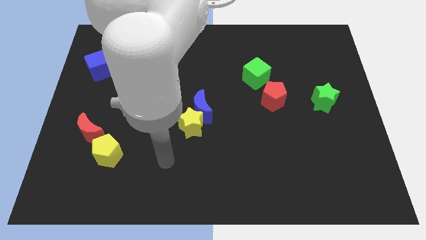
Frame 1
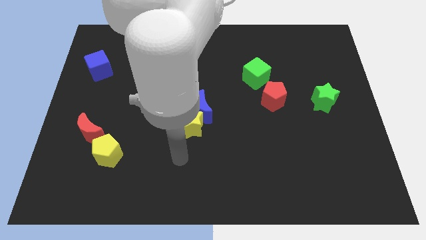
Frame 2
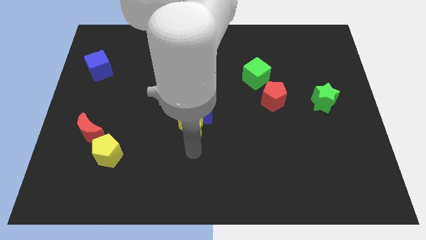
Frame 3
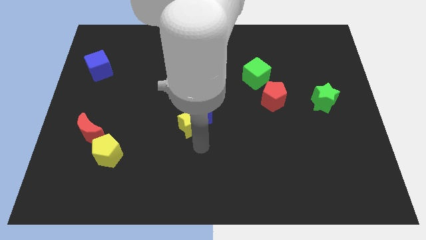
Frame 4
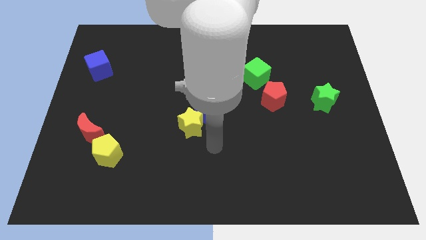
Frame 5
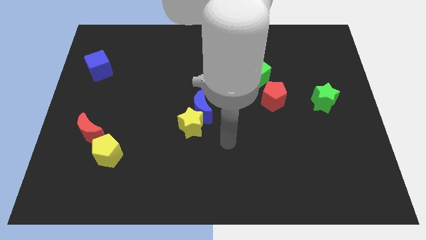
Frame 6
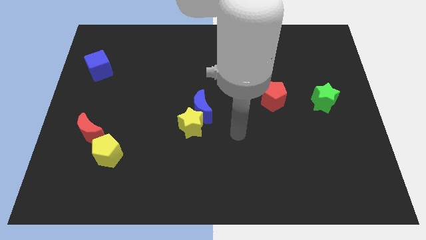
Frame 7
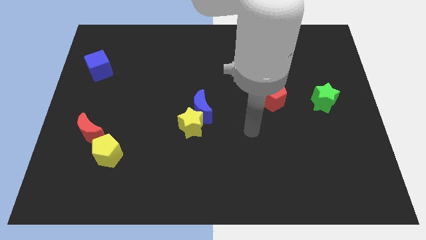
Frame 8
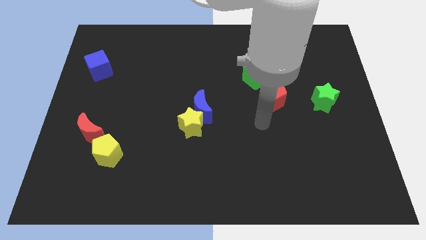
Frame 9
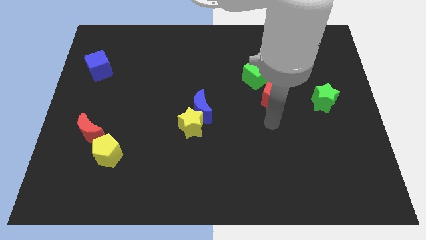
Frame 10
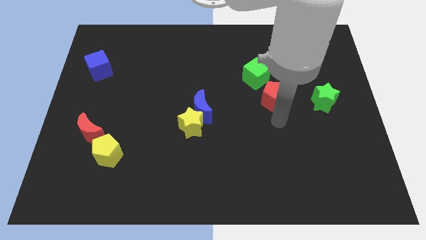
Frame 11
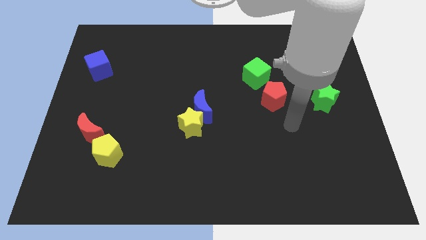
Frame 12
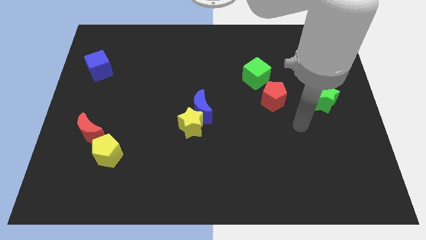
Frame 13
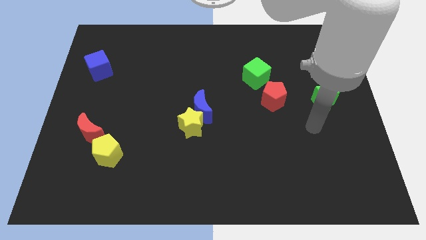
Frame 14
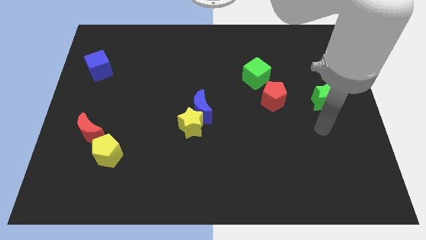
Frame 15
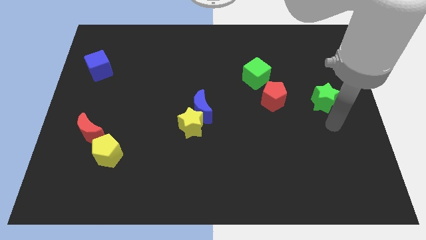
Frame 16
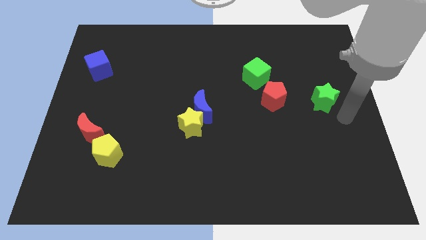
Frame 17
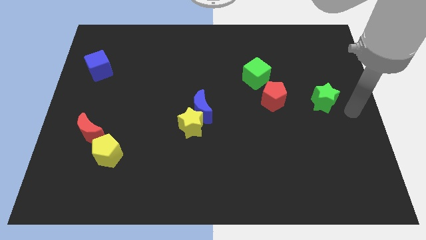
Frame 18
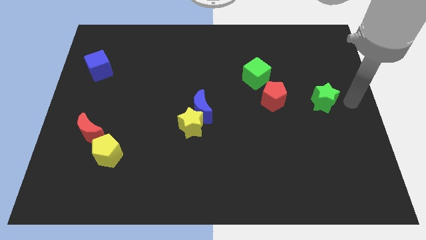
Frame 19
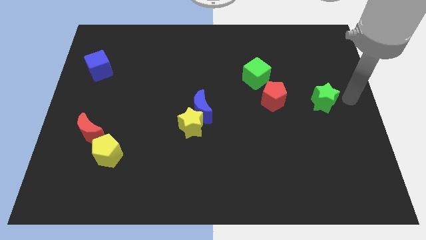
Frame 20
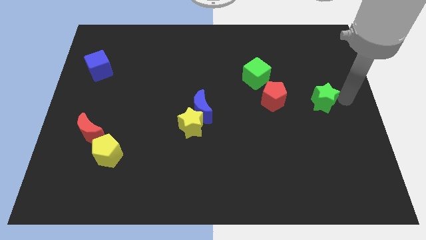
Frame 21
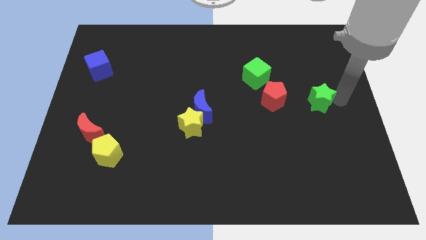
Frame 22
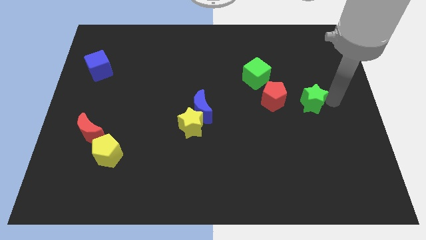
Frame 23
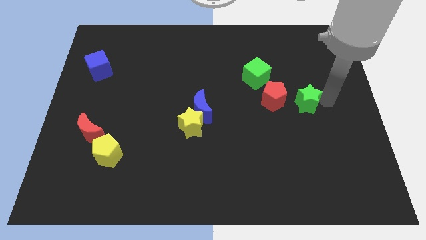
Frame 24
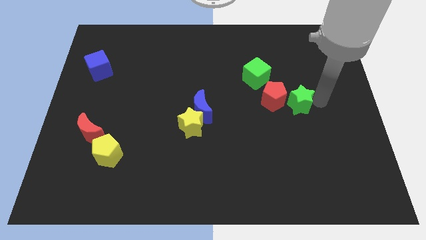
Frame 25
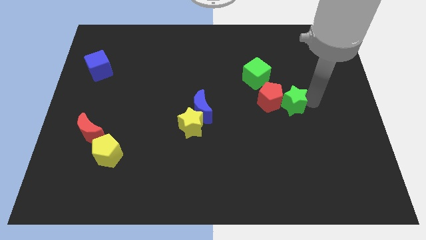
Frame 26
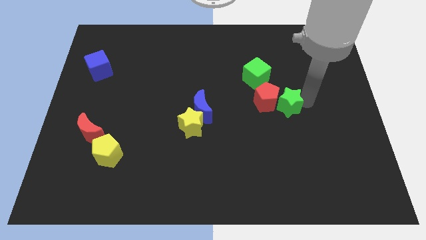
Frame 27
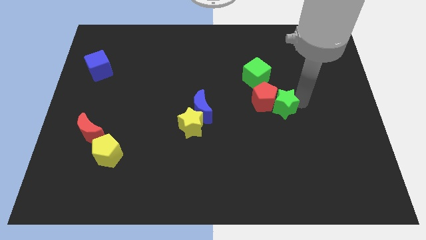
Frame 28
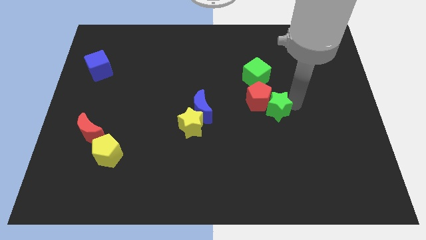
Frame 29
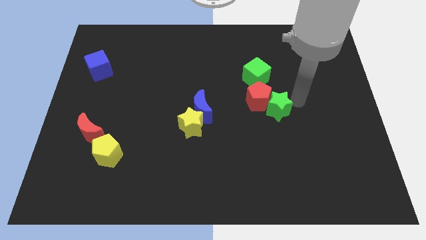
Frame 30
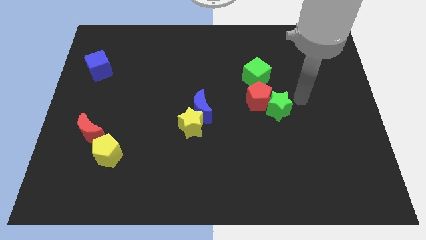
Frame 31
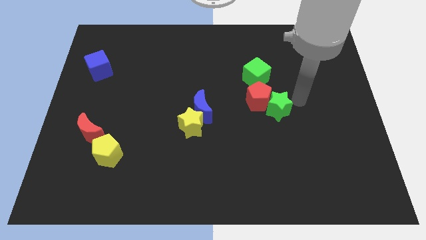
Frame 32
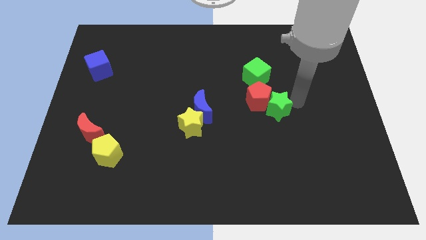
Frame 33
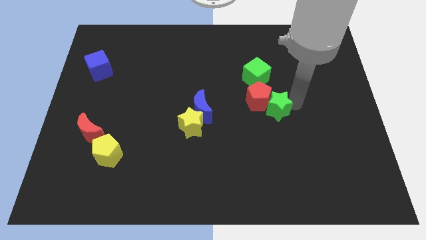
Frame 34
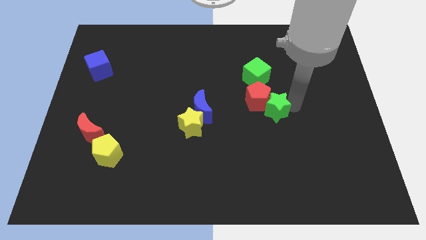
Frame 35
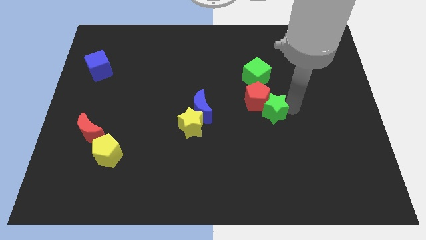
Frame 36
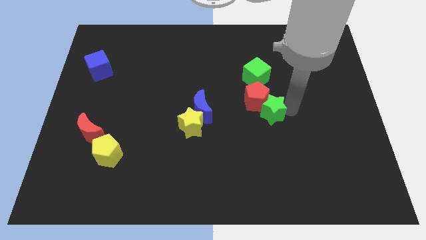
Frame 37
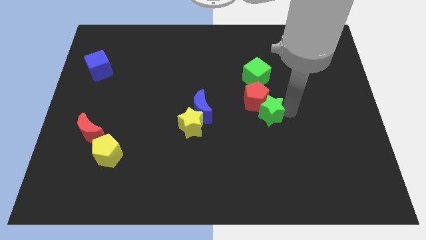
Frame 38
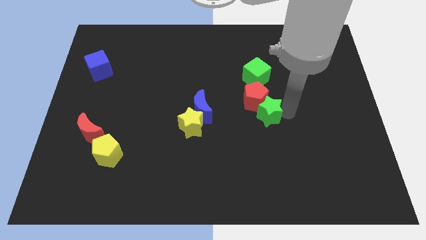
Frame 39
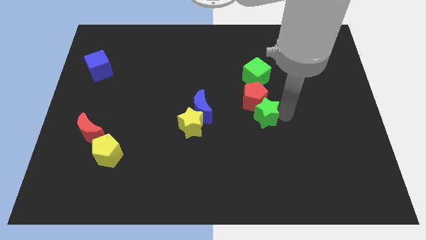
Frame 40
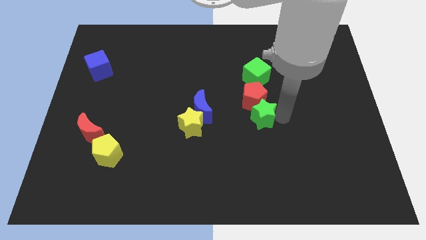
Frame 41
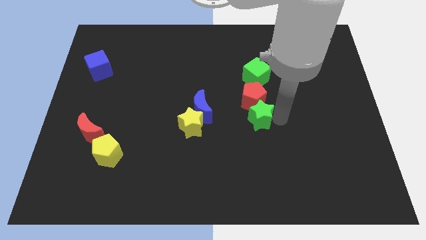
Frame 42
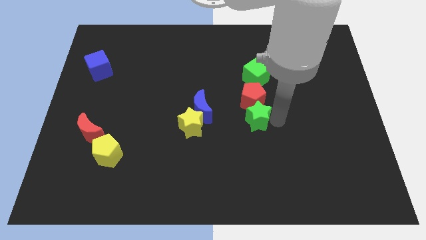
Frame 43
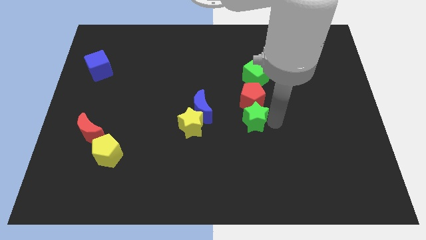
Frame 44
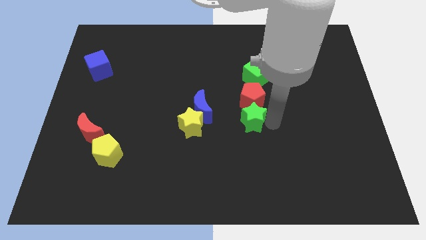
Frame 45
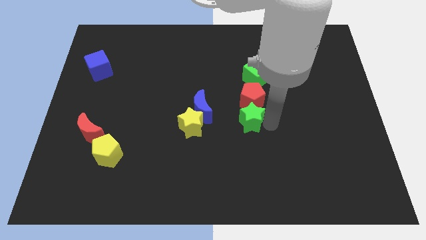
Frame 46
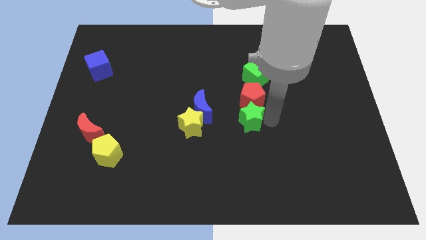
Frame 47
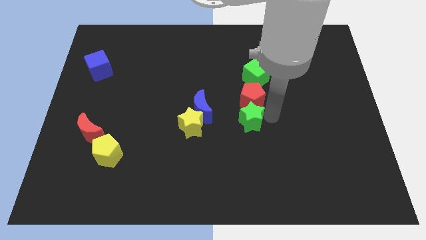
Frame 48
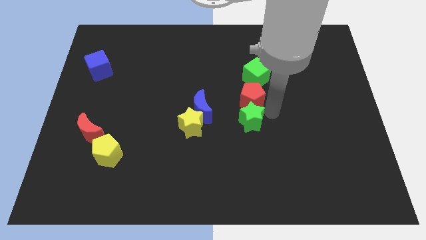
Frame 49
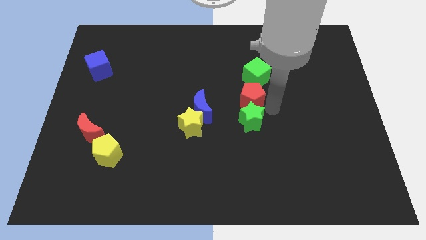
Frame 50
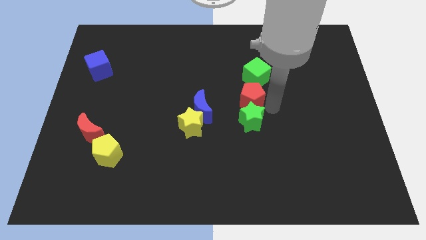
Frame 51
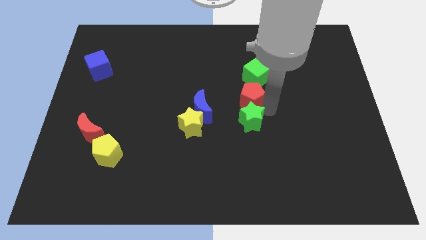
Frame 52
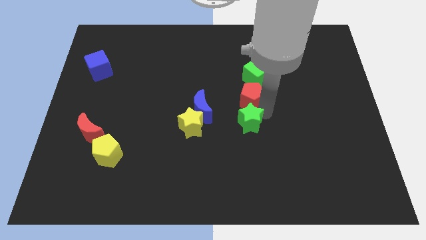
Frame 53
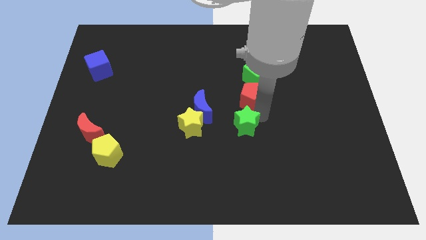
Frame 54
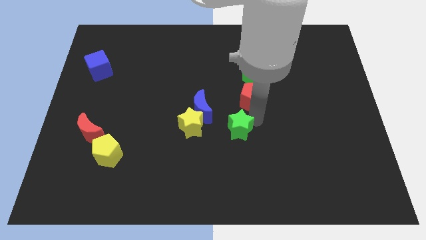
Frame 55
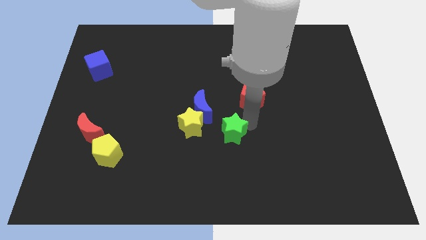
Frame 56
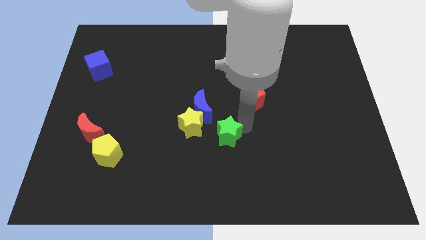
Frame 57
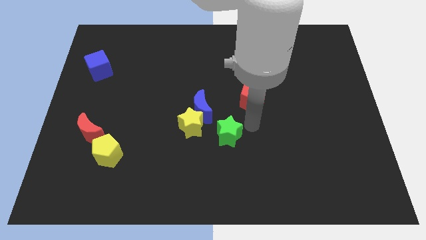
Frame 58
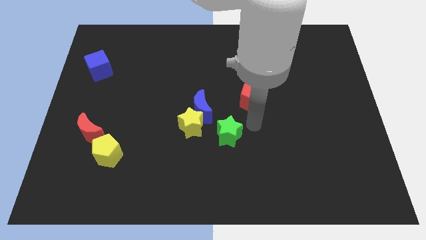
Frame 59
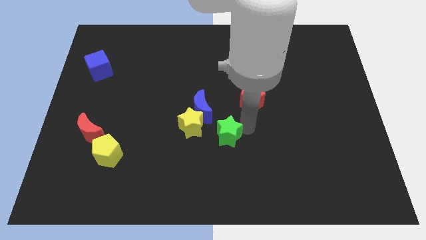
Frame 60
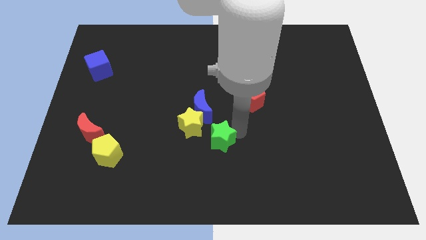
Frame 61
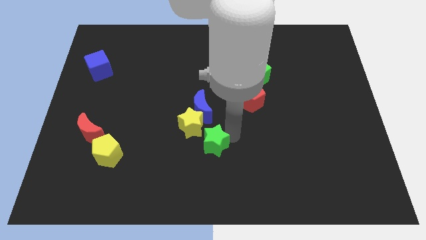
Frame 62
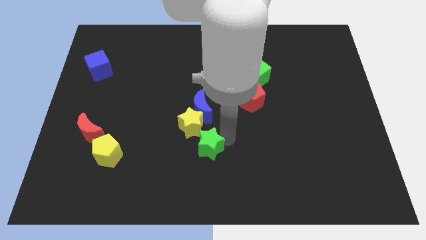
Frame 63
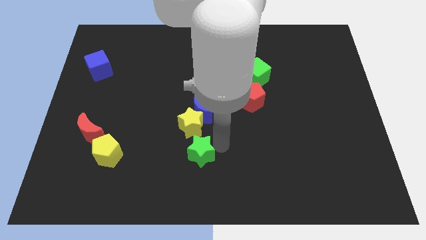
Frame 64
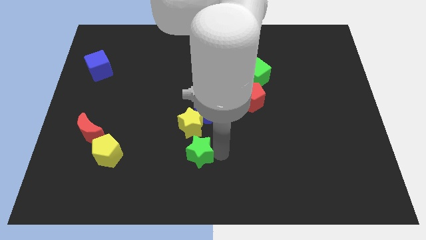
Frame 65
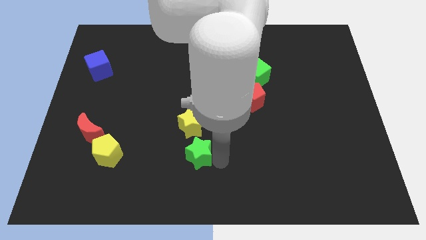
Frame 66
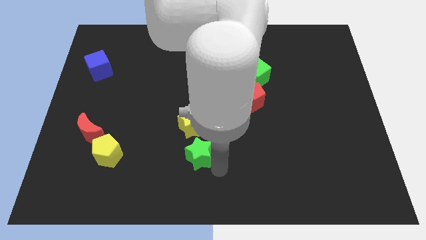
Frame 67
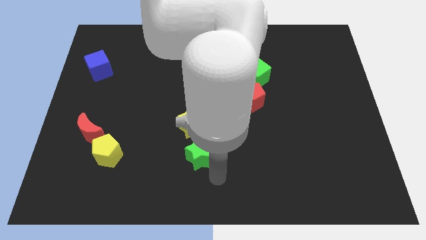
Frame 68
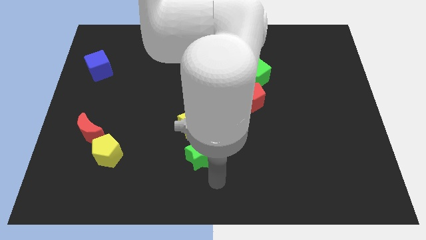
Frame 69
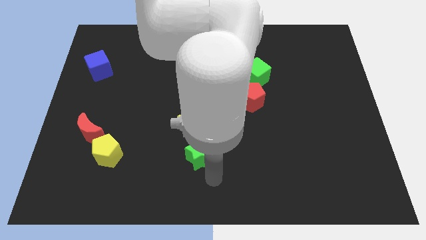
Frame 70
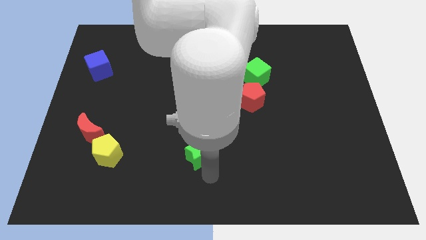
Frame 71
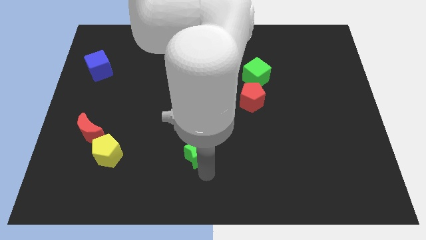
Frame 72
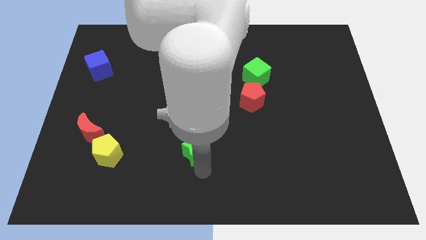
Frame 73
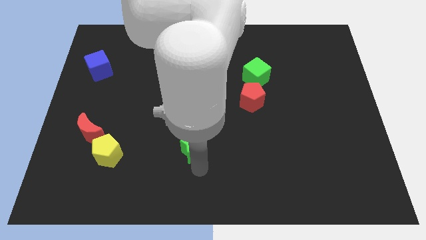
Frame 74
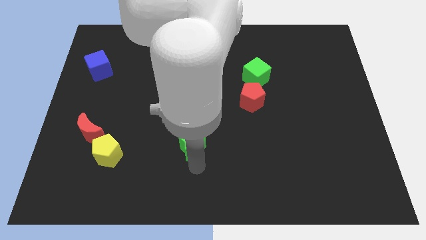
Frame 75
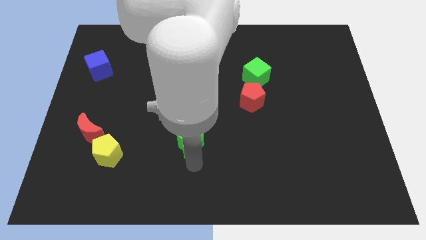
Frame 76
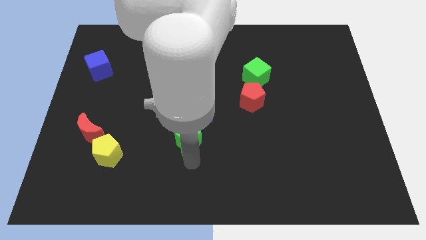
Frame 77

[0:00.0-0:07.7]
slide the green star to the bottom left side of the blue moon
